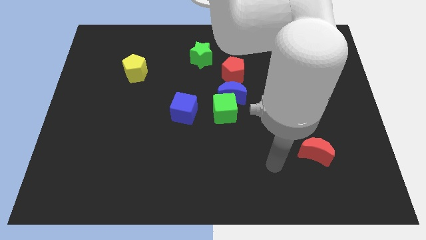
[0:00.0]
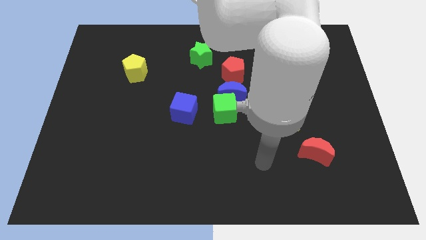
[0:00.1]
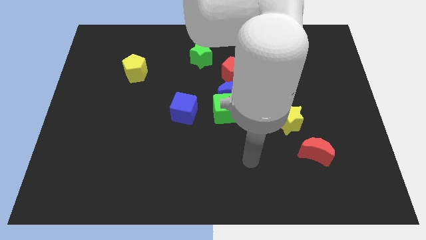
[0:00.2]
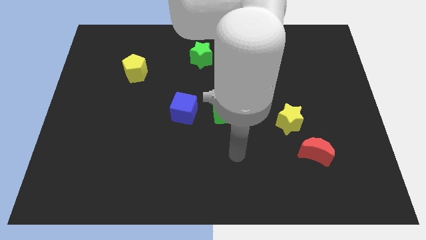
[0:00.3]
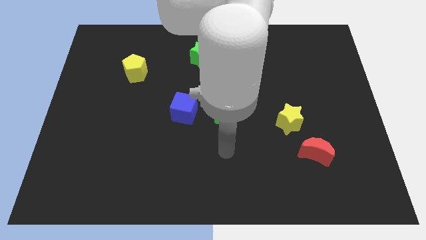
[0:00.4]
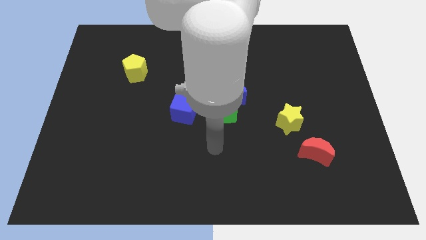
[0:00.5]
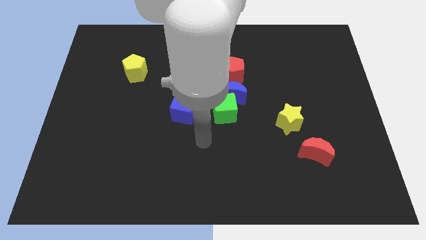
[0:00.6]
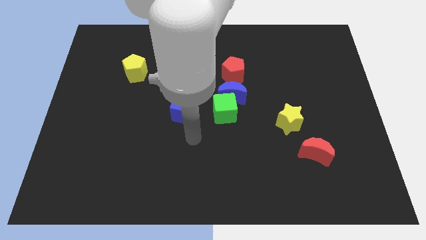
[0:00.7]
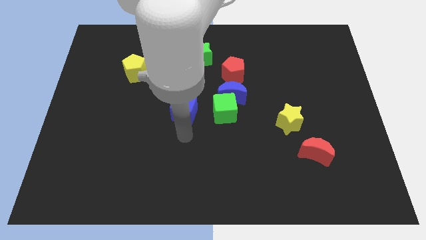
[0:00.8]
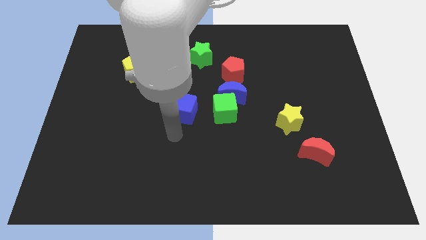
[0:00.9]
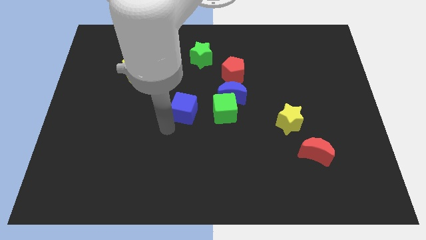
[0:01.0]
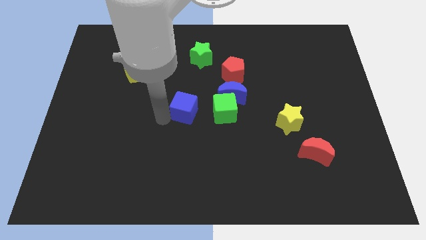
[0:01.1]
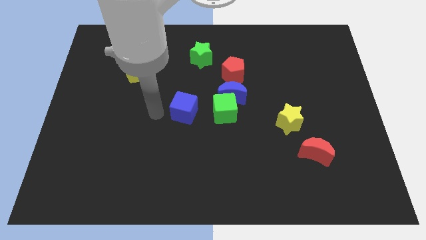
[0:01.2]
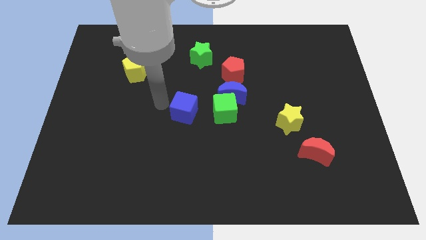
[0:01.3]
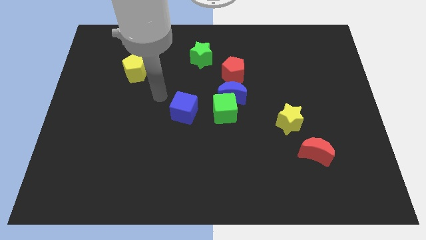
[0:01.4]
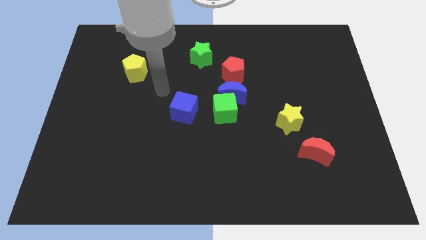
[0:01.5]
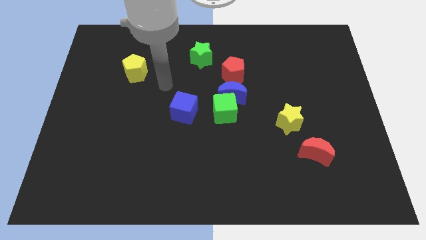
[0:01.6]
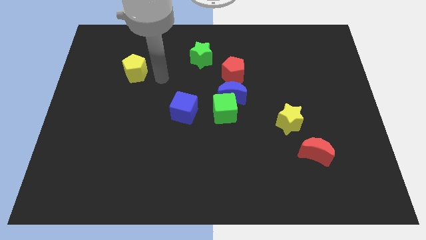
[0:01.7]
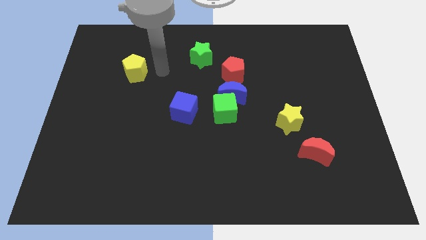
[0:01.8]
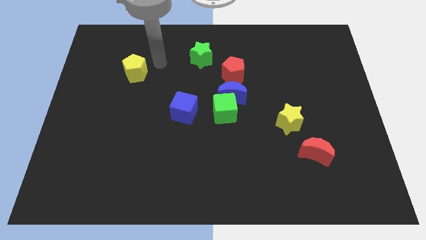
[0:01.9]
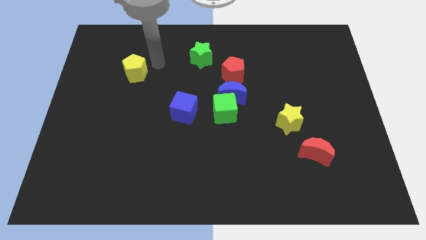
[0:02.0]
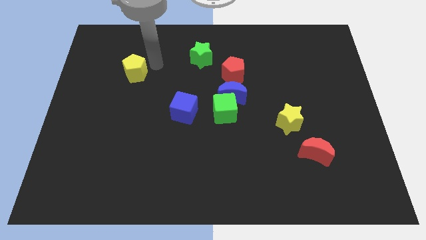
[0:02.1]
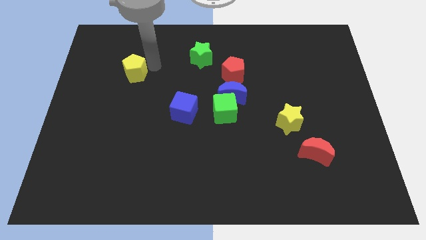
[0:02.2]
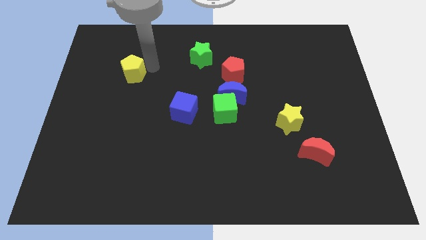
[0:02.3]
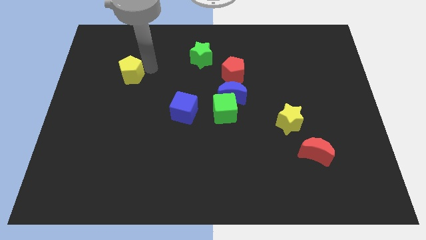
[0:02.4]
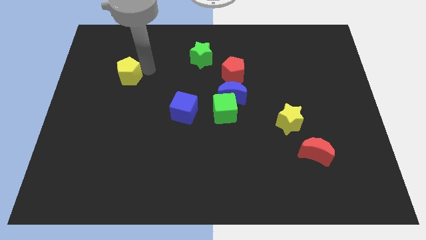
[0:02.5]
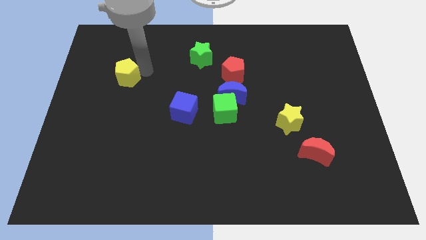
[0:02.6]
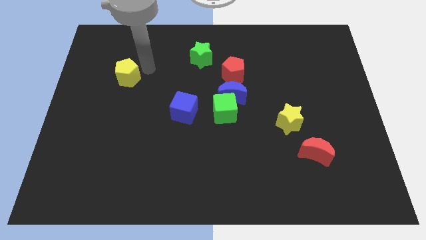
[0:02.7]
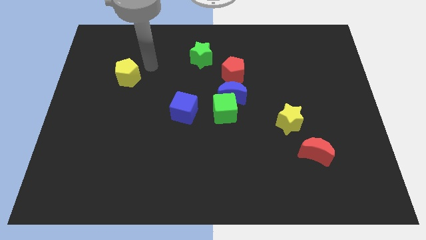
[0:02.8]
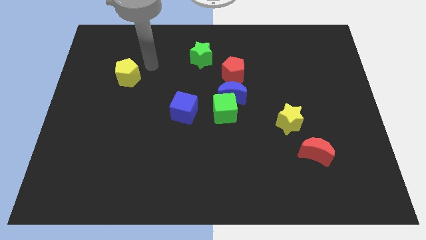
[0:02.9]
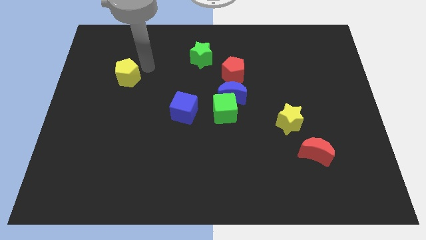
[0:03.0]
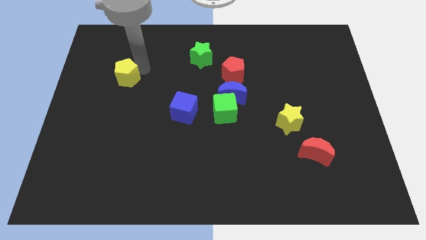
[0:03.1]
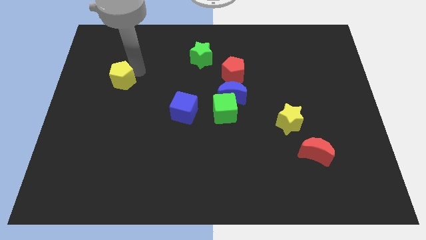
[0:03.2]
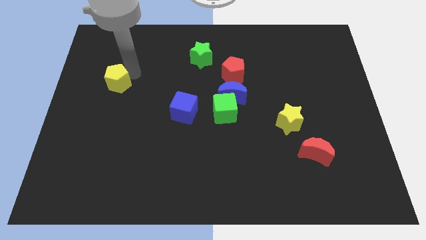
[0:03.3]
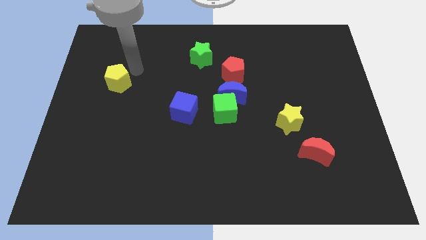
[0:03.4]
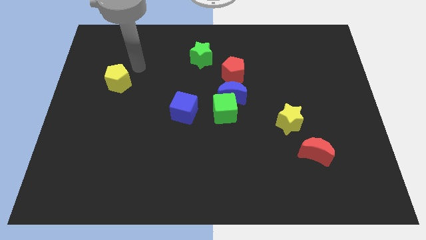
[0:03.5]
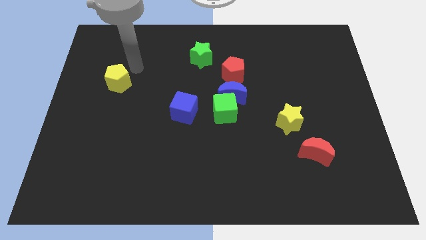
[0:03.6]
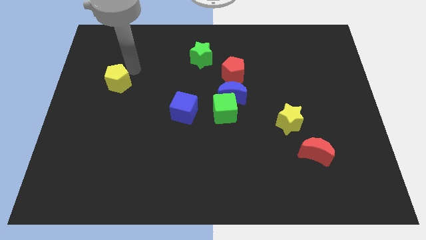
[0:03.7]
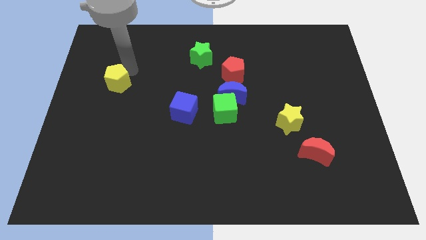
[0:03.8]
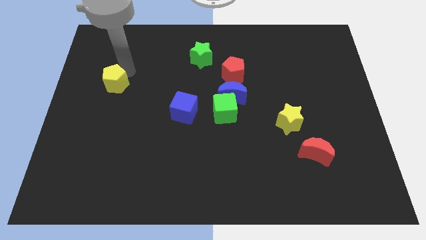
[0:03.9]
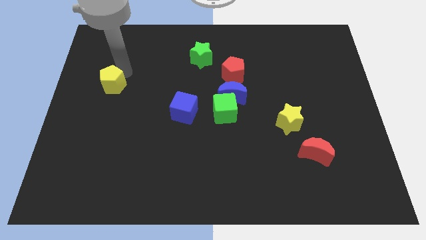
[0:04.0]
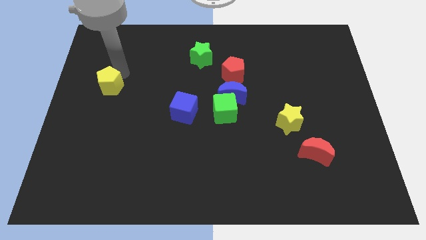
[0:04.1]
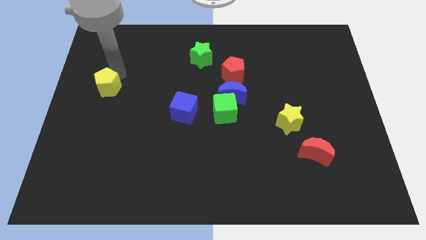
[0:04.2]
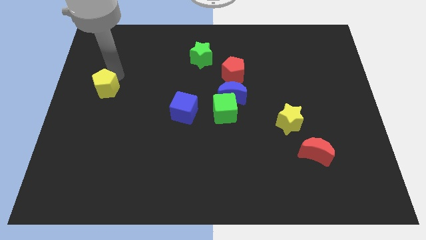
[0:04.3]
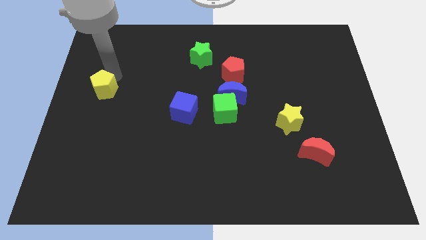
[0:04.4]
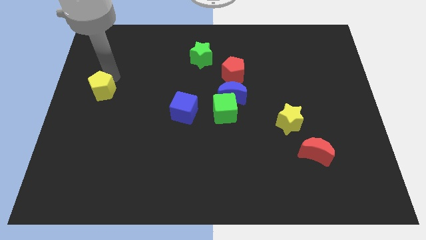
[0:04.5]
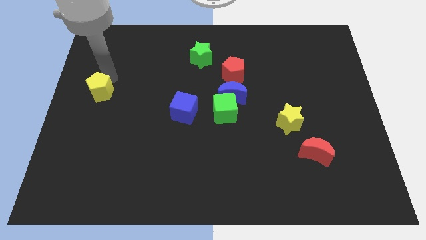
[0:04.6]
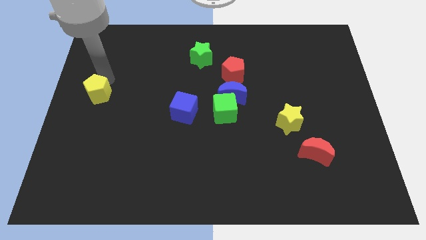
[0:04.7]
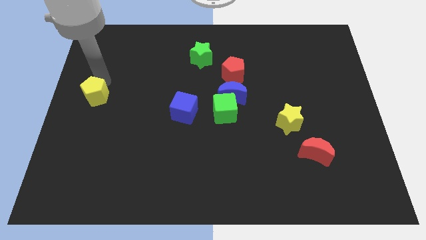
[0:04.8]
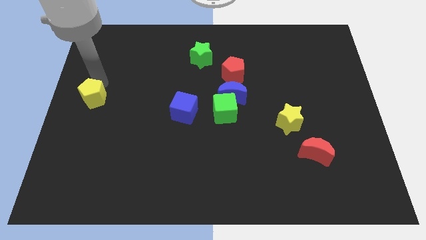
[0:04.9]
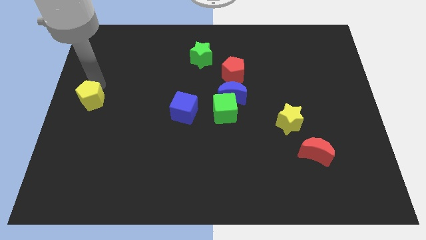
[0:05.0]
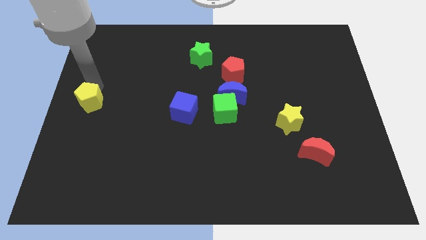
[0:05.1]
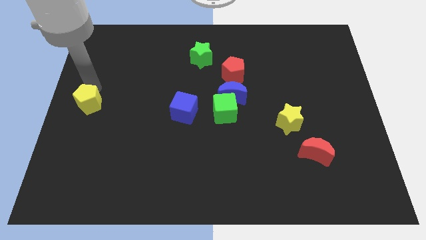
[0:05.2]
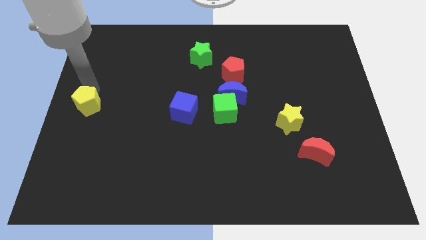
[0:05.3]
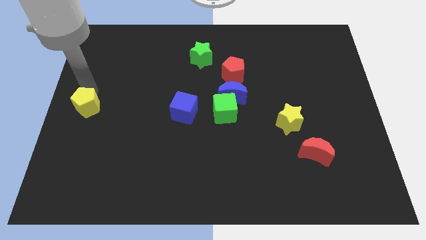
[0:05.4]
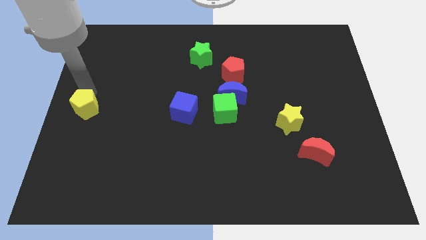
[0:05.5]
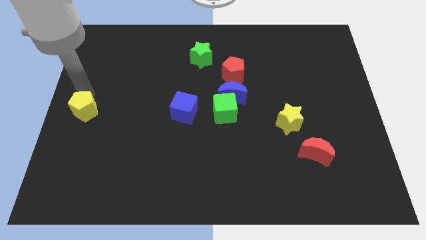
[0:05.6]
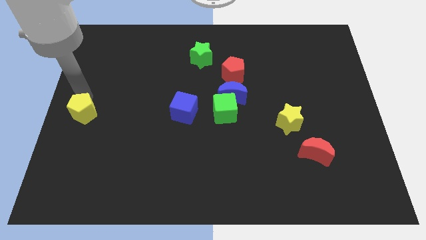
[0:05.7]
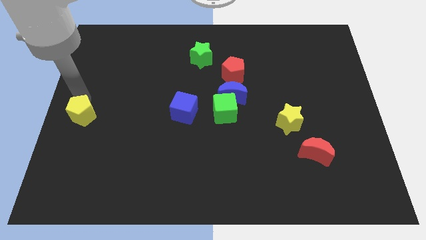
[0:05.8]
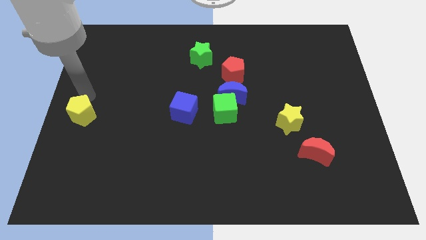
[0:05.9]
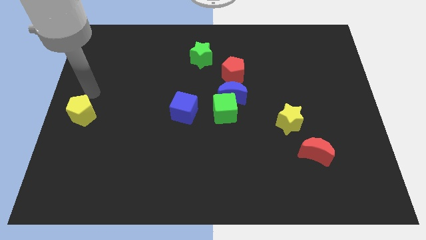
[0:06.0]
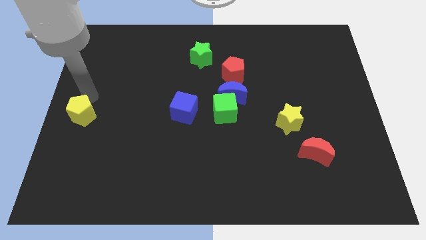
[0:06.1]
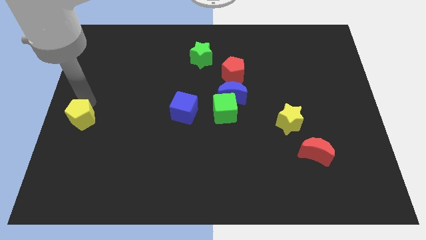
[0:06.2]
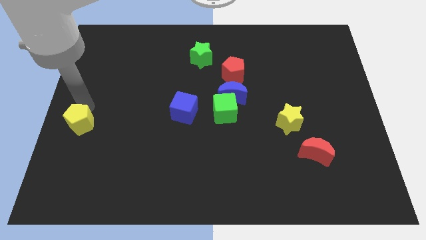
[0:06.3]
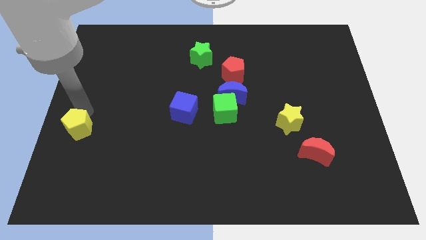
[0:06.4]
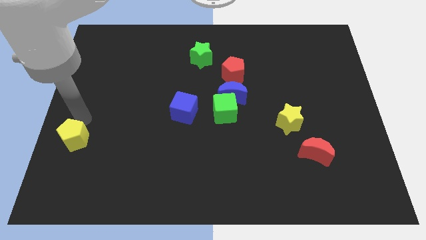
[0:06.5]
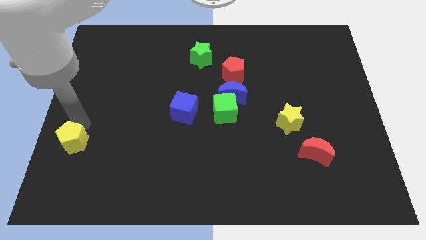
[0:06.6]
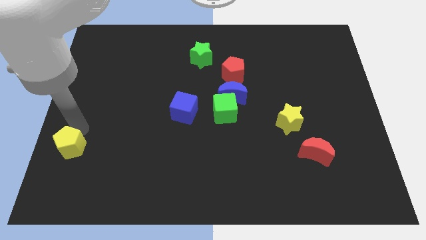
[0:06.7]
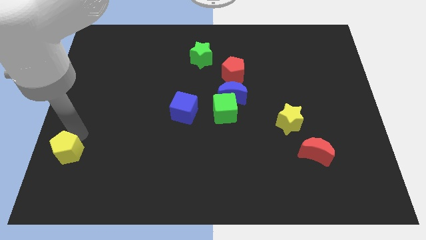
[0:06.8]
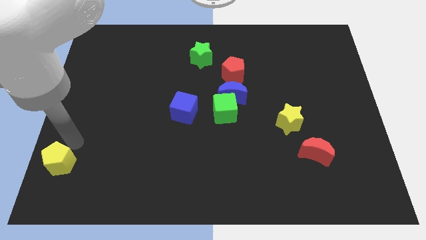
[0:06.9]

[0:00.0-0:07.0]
move the yellow pentagon to the bottom left of the board
